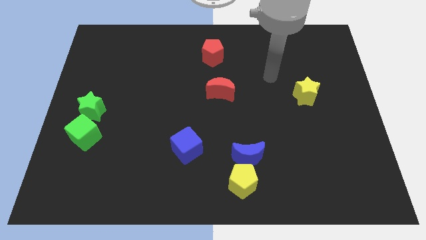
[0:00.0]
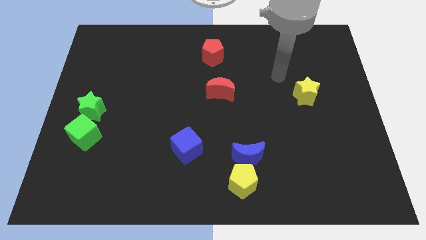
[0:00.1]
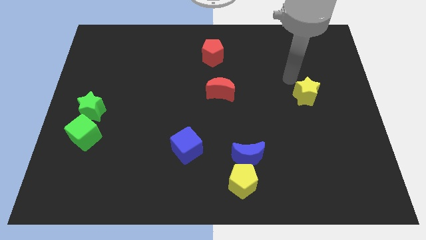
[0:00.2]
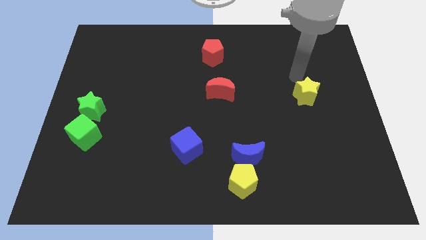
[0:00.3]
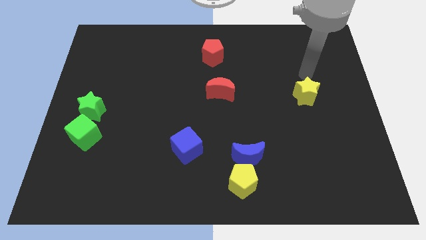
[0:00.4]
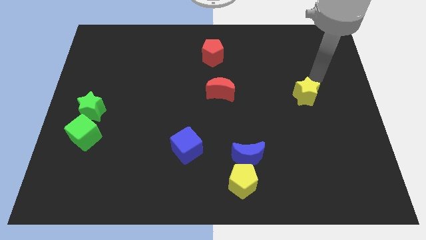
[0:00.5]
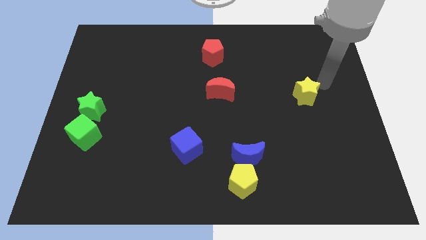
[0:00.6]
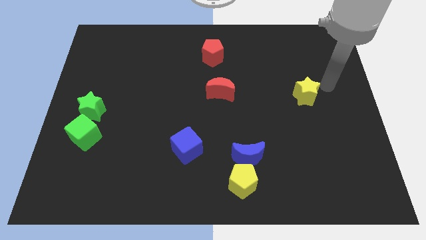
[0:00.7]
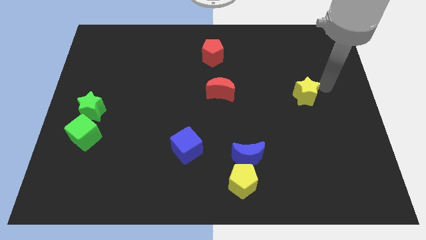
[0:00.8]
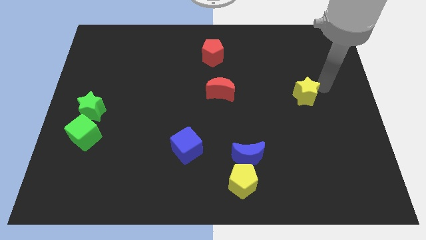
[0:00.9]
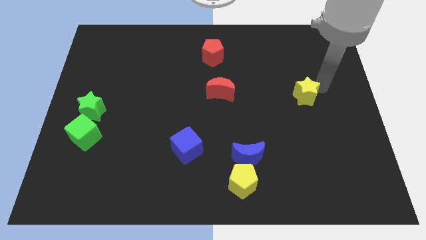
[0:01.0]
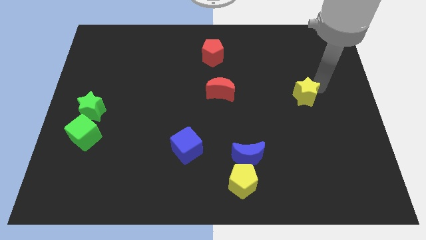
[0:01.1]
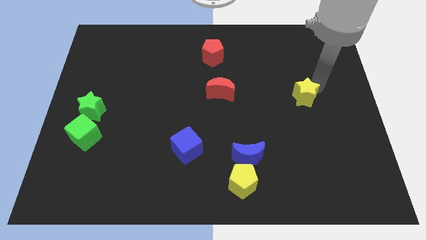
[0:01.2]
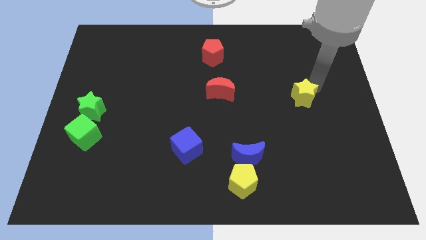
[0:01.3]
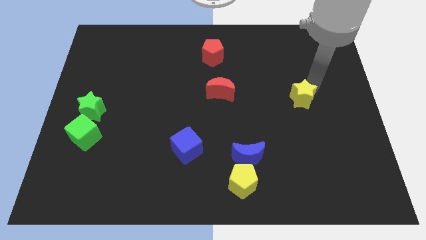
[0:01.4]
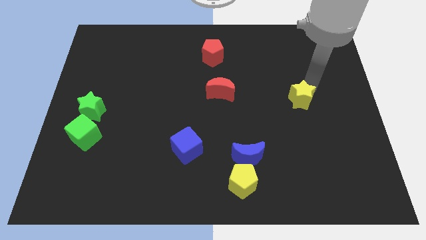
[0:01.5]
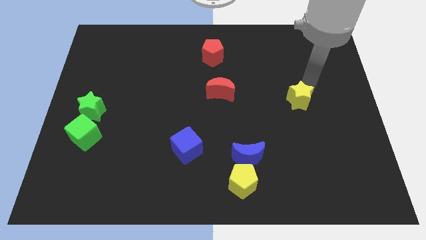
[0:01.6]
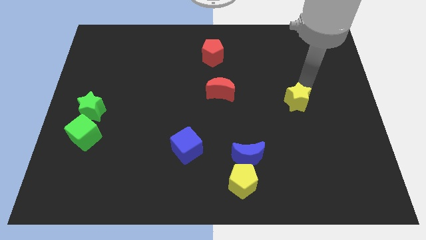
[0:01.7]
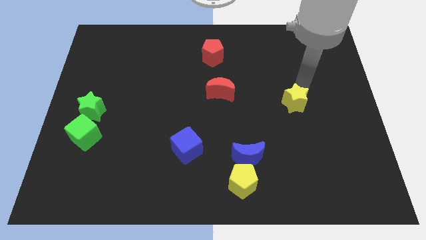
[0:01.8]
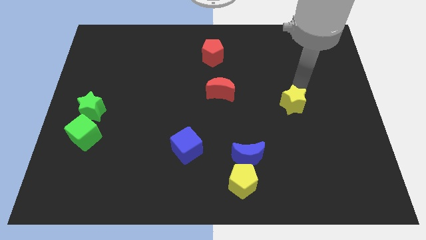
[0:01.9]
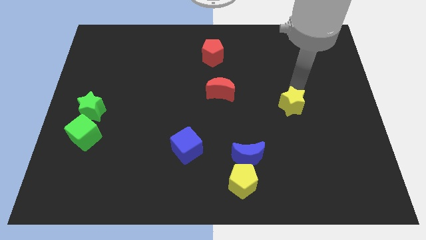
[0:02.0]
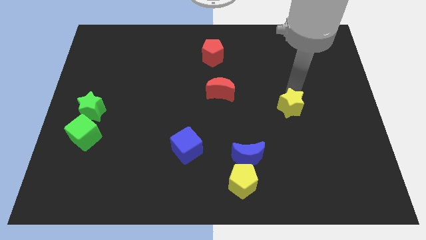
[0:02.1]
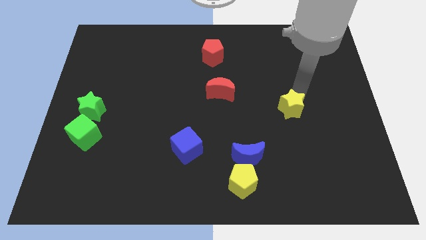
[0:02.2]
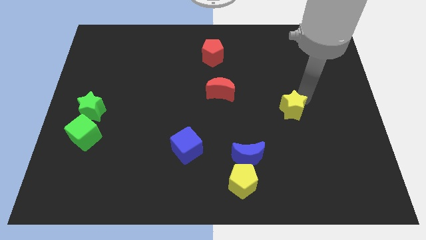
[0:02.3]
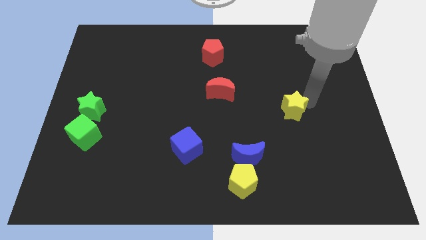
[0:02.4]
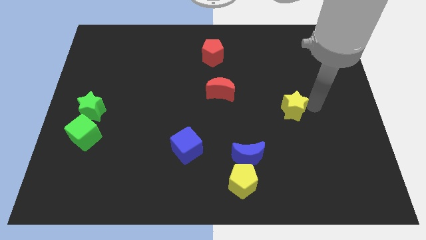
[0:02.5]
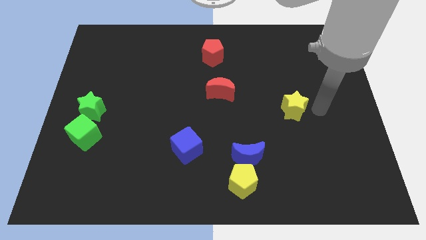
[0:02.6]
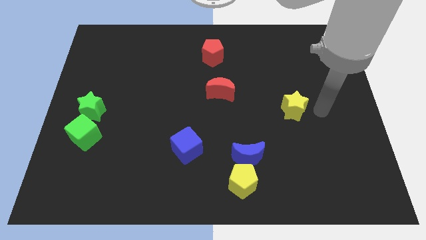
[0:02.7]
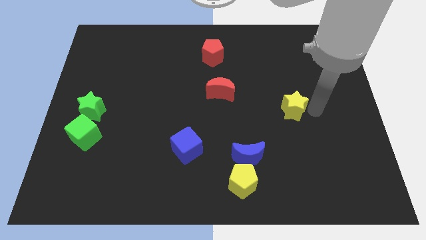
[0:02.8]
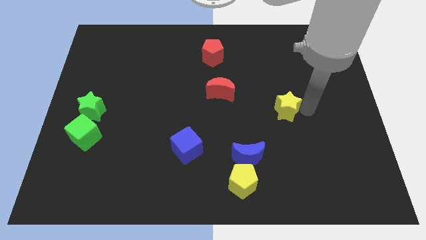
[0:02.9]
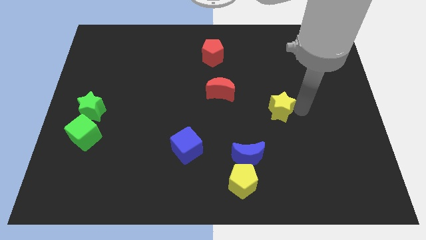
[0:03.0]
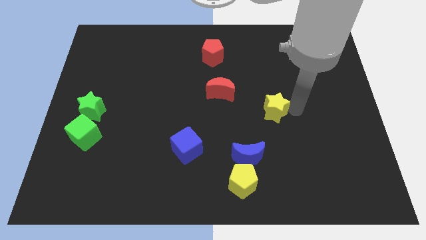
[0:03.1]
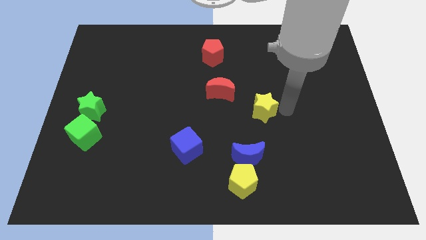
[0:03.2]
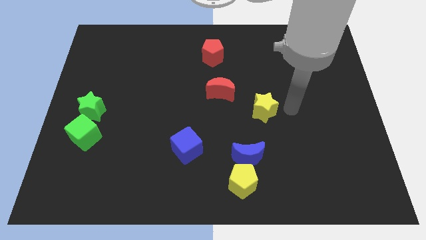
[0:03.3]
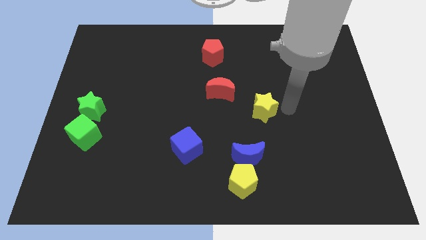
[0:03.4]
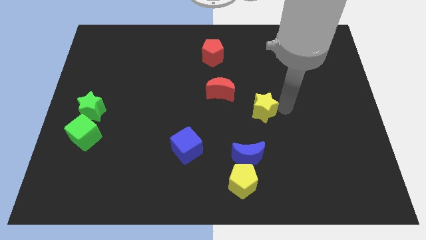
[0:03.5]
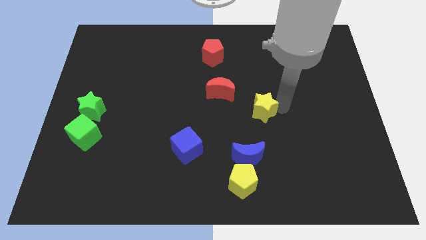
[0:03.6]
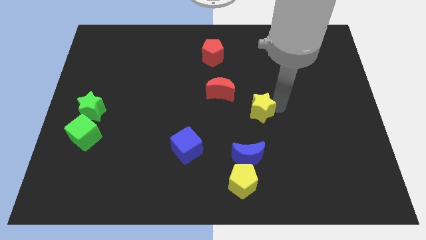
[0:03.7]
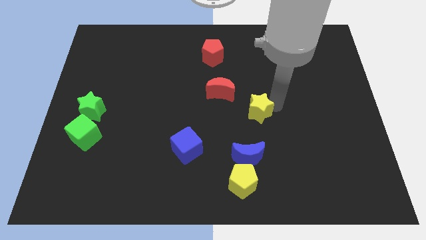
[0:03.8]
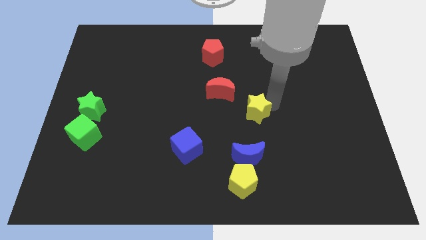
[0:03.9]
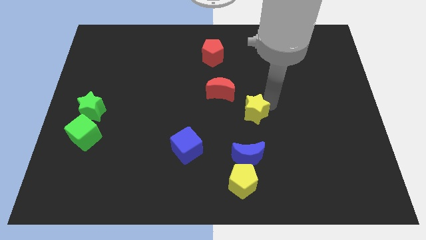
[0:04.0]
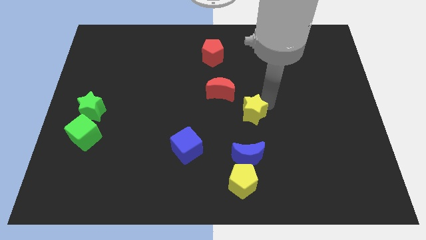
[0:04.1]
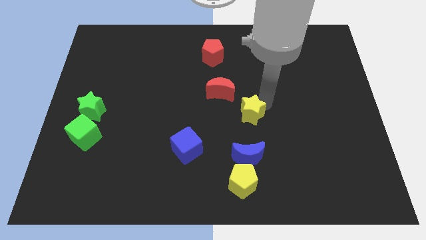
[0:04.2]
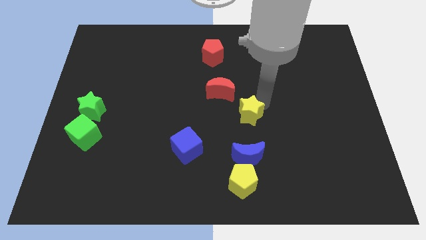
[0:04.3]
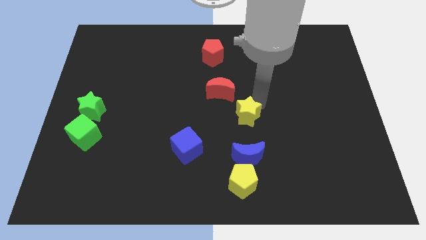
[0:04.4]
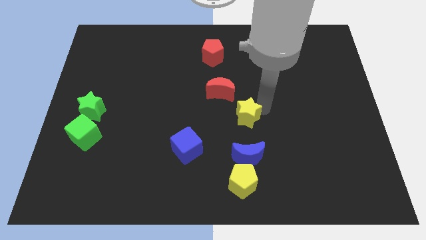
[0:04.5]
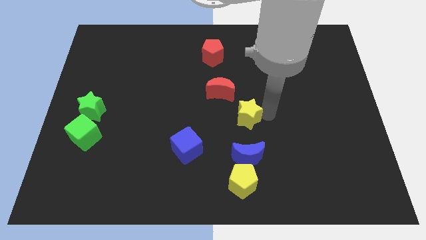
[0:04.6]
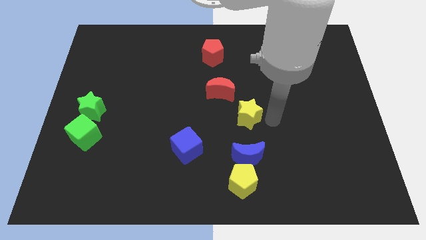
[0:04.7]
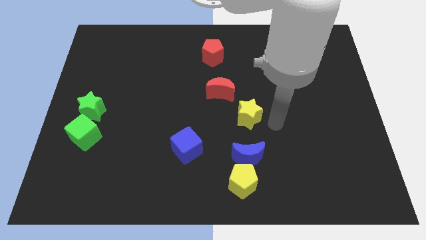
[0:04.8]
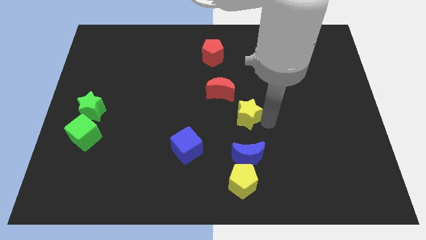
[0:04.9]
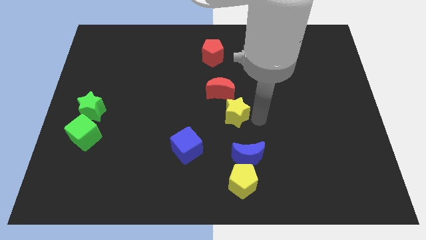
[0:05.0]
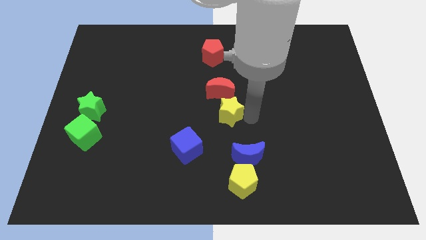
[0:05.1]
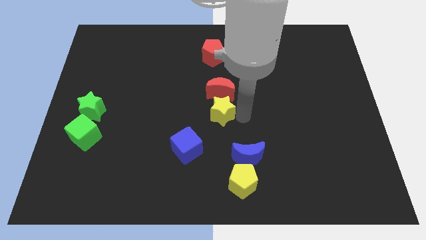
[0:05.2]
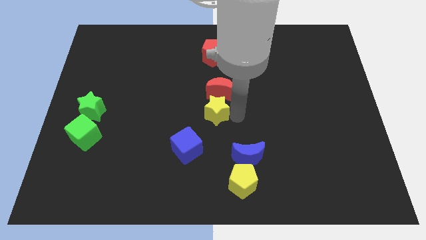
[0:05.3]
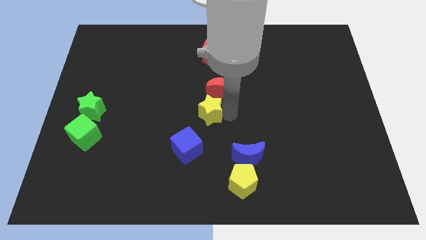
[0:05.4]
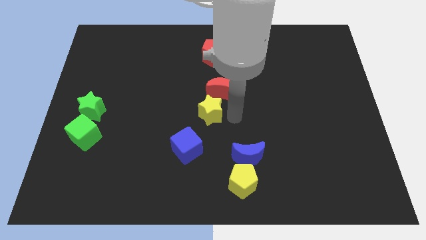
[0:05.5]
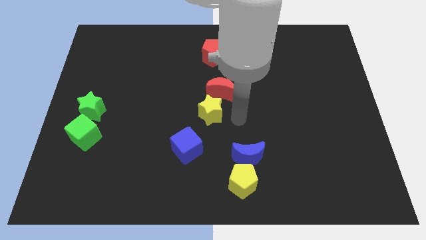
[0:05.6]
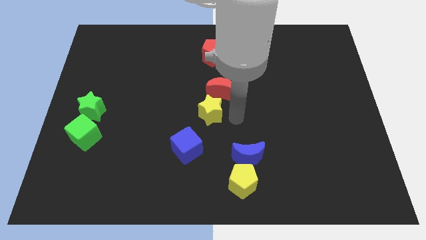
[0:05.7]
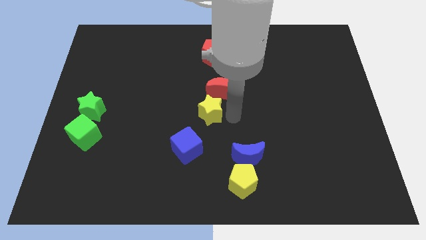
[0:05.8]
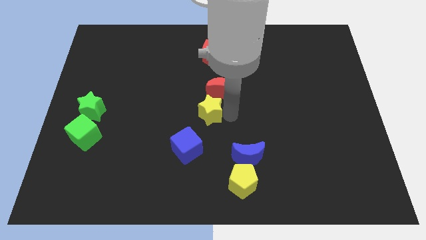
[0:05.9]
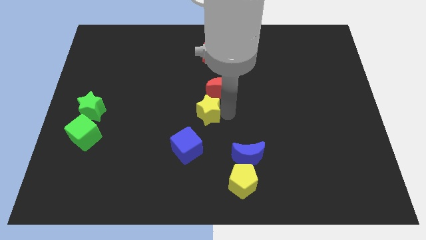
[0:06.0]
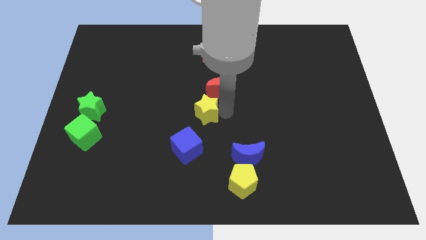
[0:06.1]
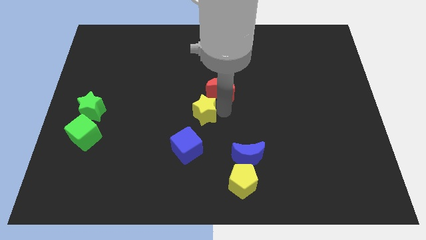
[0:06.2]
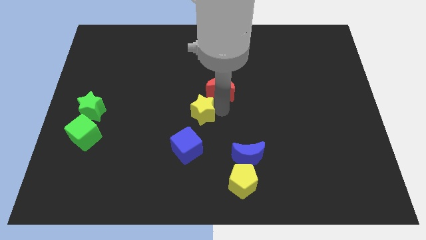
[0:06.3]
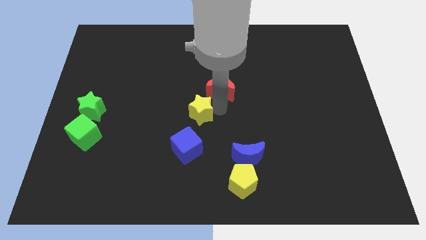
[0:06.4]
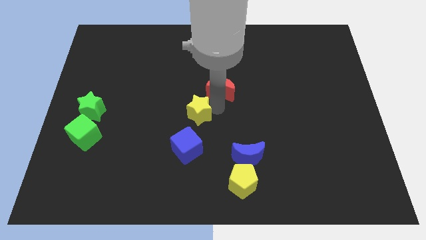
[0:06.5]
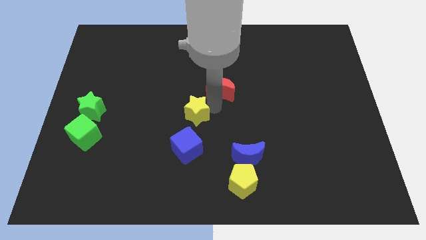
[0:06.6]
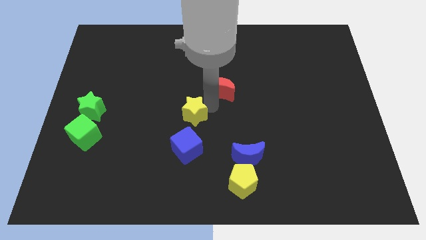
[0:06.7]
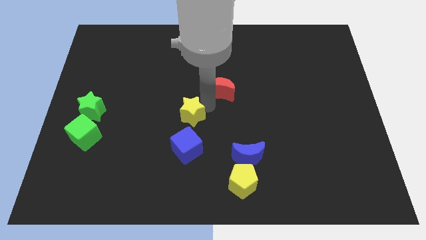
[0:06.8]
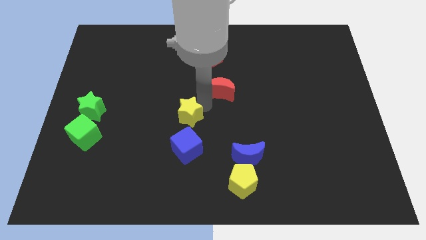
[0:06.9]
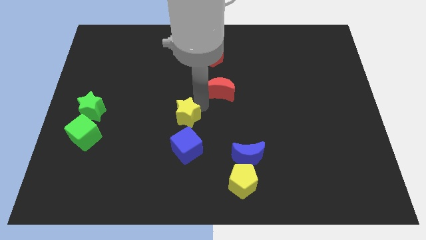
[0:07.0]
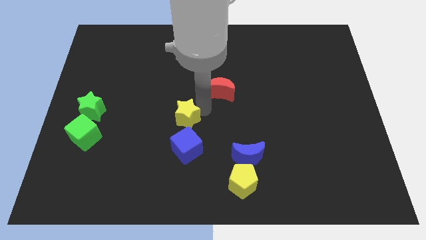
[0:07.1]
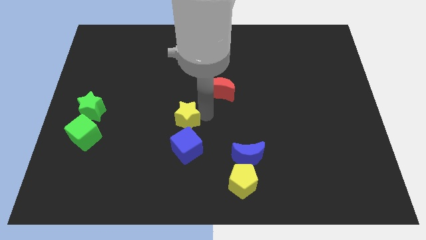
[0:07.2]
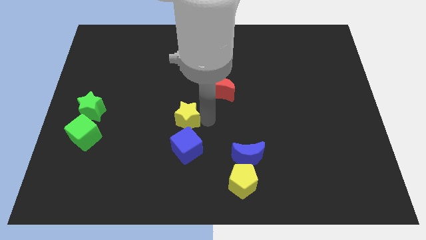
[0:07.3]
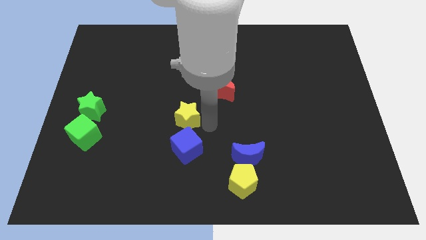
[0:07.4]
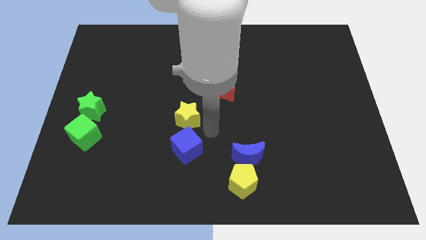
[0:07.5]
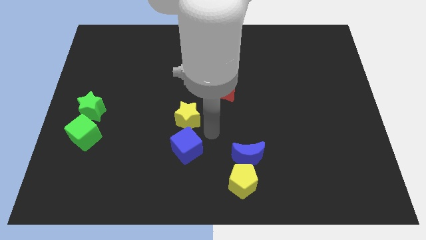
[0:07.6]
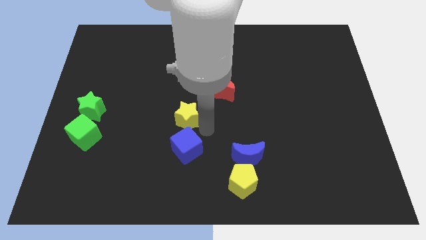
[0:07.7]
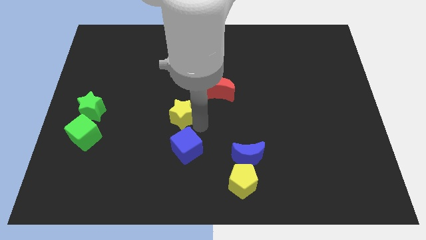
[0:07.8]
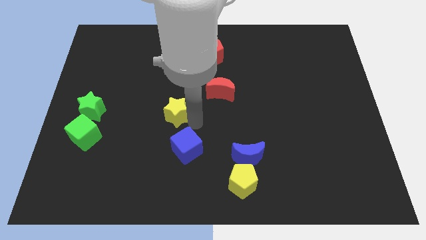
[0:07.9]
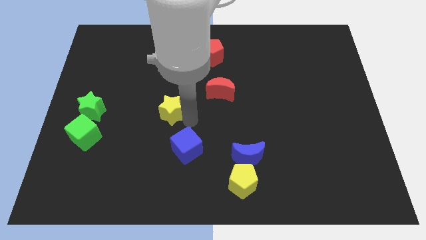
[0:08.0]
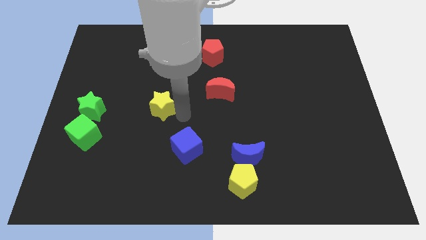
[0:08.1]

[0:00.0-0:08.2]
move the yellow star to the right side of the green star
